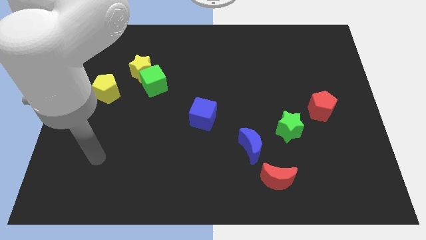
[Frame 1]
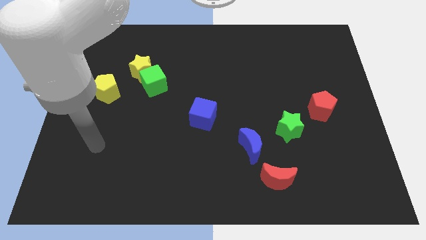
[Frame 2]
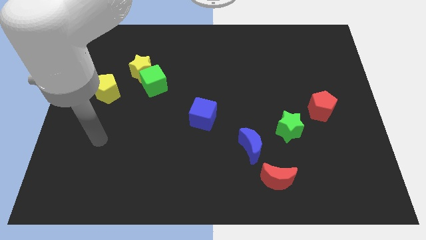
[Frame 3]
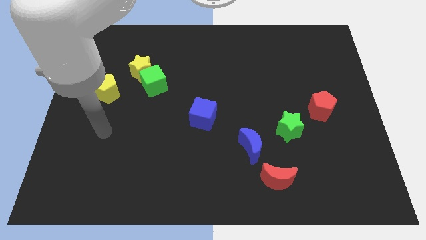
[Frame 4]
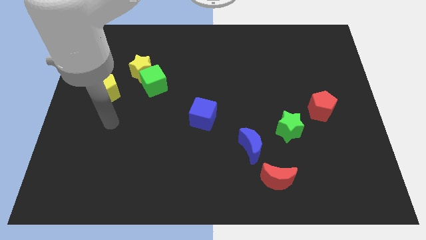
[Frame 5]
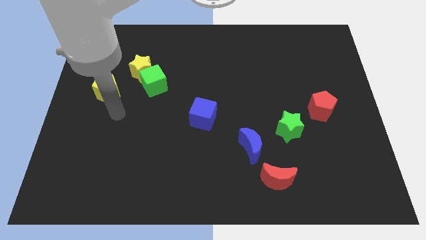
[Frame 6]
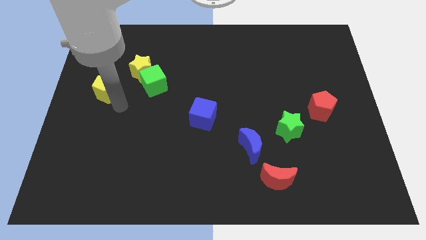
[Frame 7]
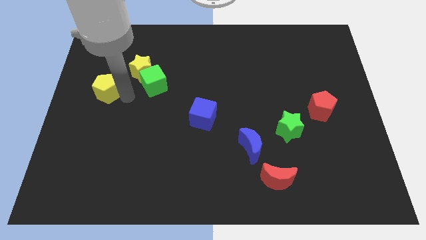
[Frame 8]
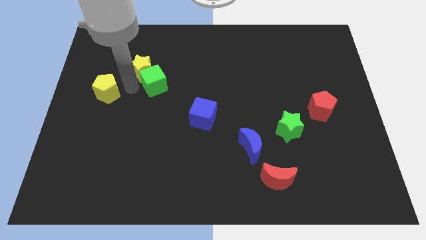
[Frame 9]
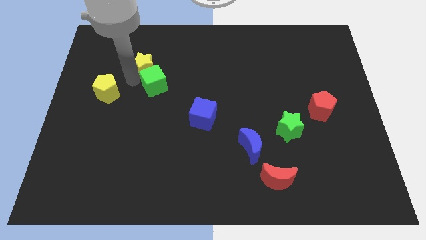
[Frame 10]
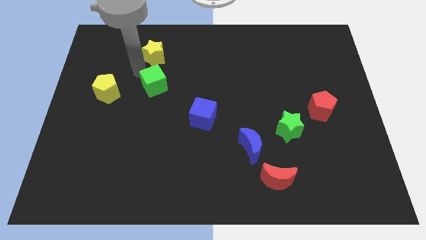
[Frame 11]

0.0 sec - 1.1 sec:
move the green cube away from the yellow star

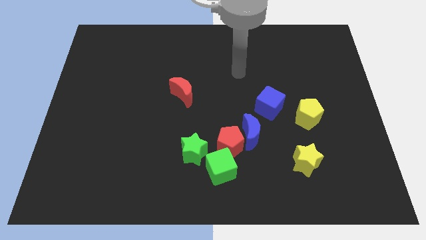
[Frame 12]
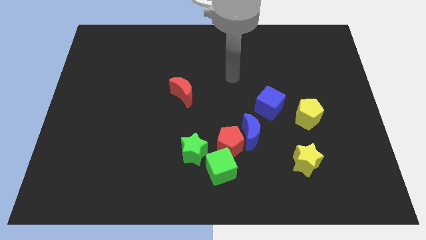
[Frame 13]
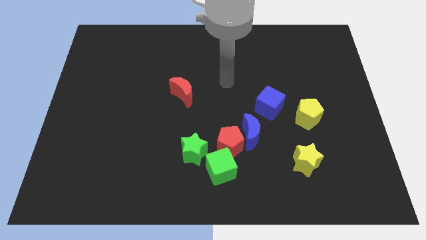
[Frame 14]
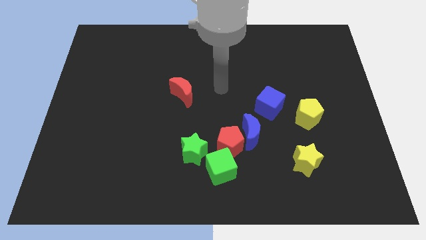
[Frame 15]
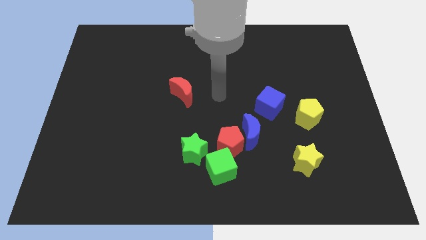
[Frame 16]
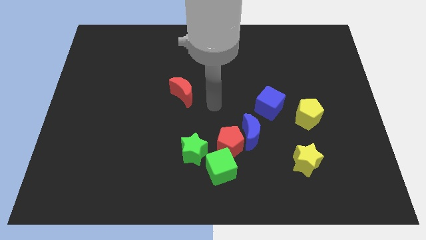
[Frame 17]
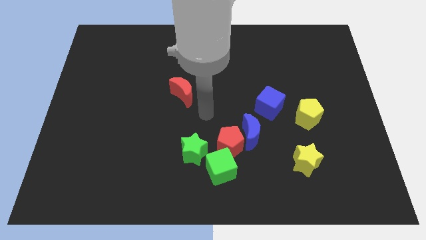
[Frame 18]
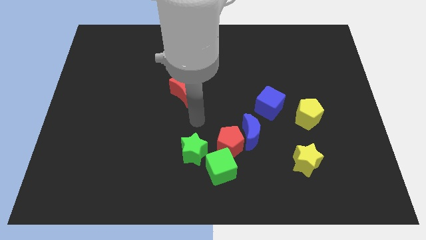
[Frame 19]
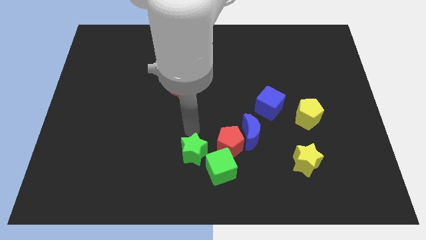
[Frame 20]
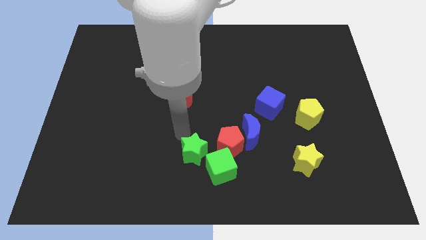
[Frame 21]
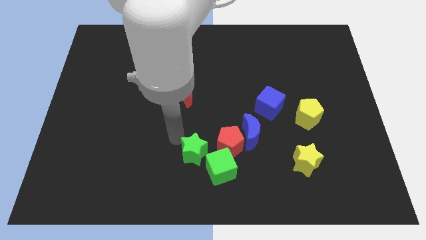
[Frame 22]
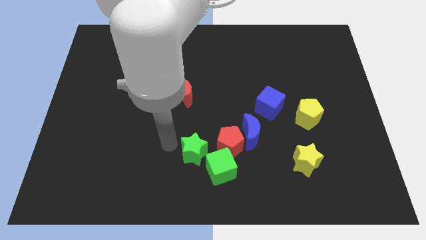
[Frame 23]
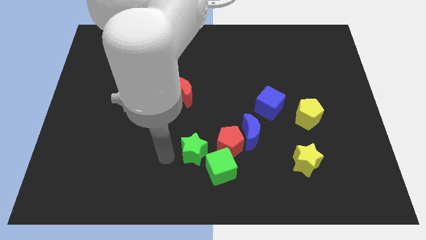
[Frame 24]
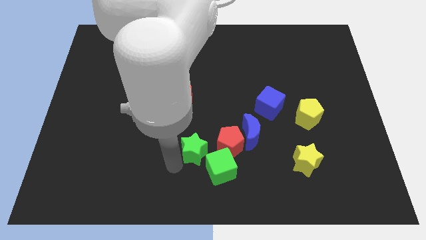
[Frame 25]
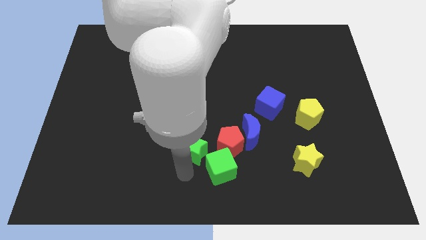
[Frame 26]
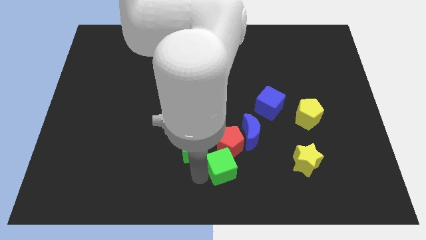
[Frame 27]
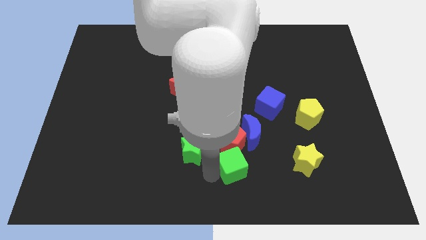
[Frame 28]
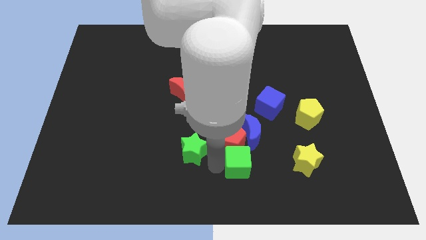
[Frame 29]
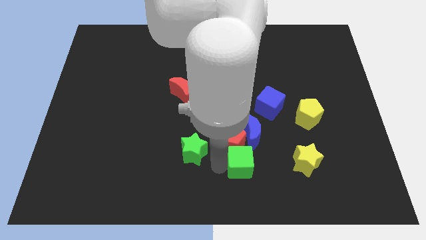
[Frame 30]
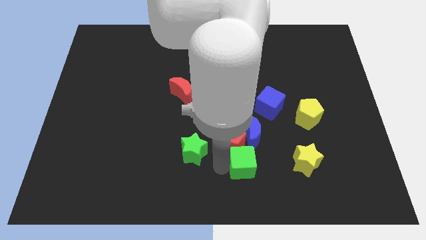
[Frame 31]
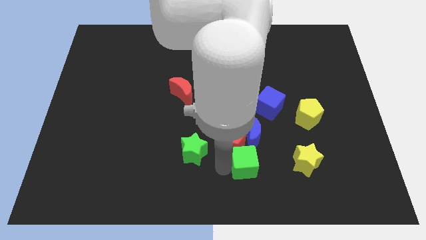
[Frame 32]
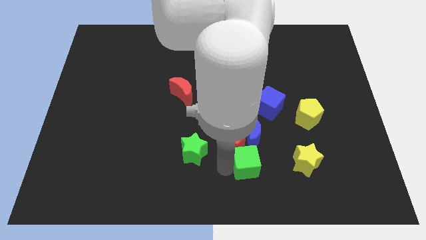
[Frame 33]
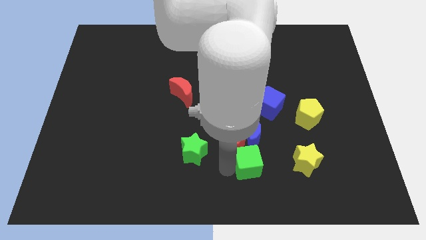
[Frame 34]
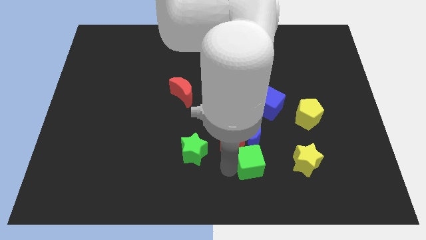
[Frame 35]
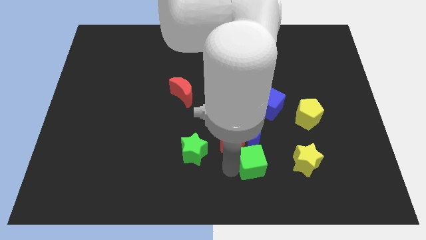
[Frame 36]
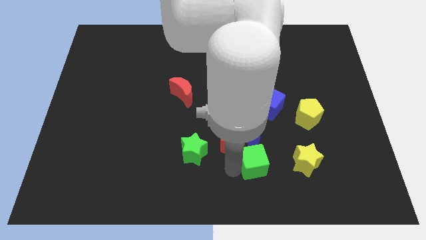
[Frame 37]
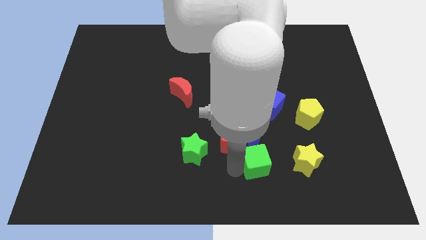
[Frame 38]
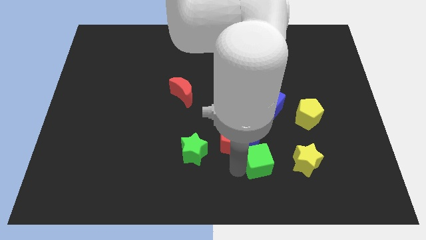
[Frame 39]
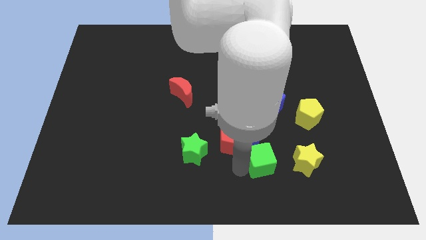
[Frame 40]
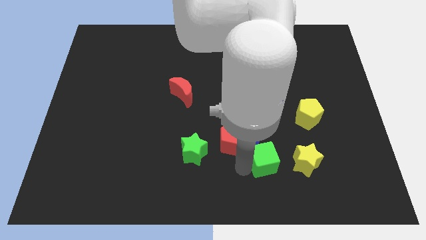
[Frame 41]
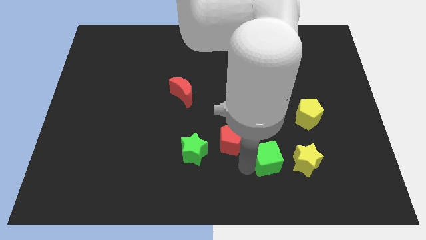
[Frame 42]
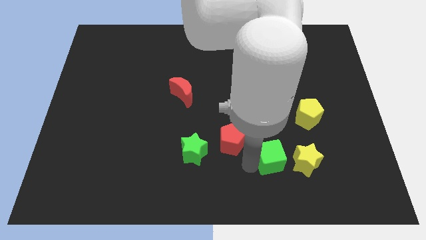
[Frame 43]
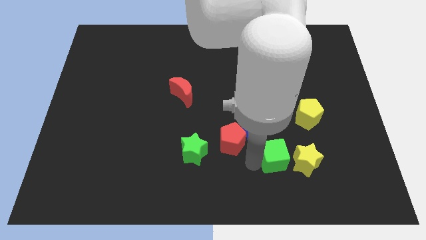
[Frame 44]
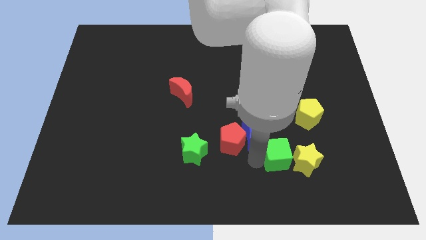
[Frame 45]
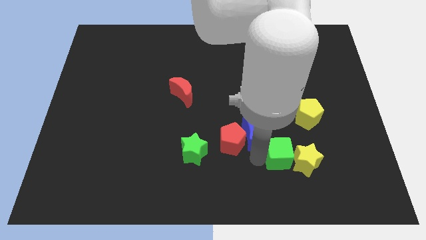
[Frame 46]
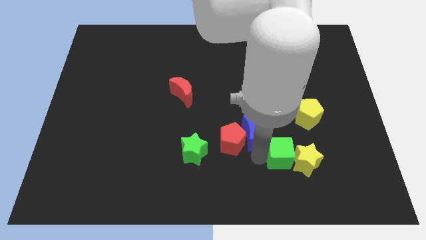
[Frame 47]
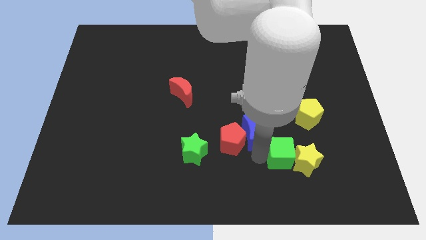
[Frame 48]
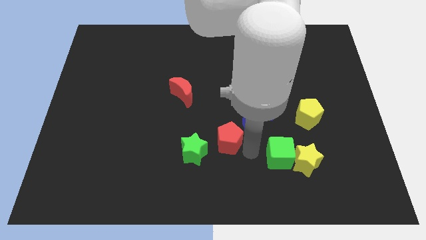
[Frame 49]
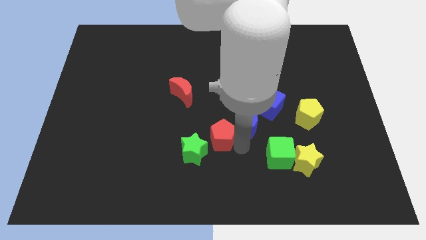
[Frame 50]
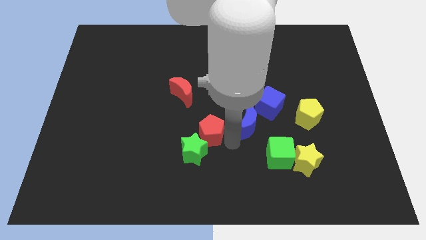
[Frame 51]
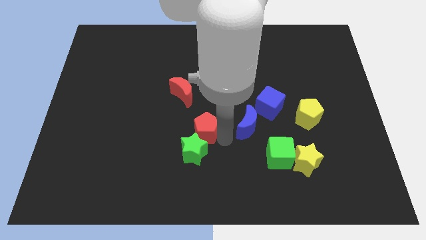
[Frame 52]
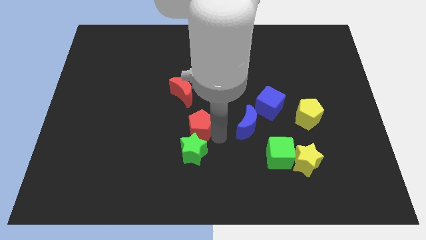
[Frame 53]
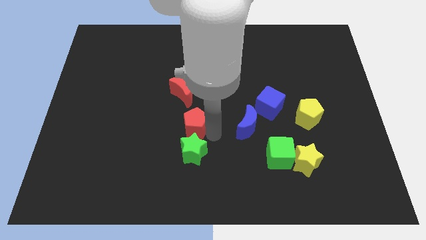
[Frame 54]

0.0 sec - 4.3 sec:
separate the red pentagon from the blue moon, green cube, and green star

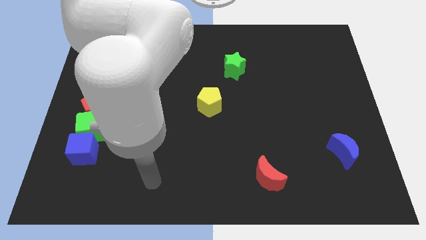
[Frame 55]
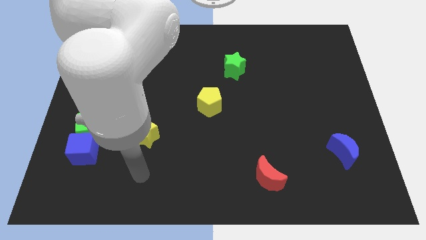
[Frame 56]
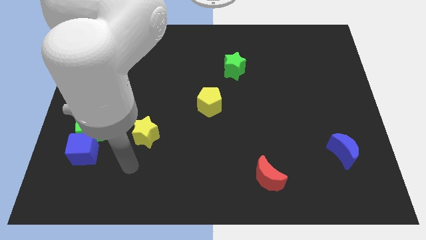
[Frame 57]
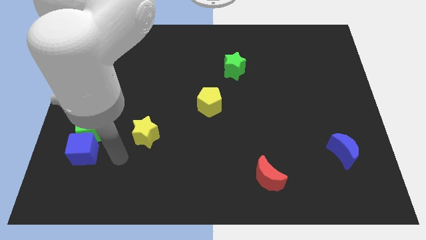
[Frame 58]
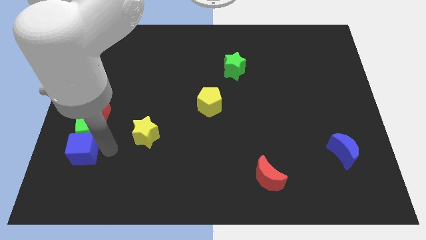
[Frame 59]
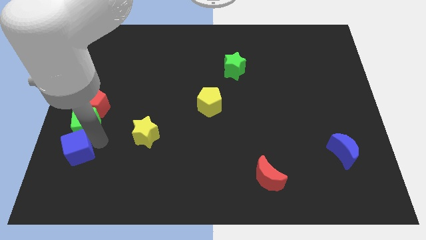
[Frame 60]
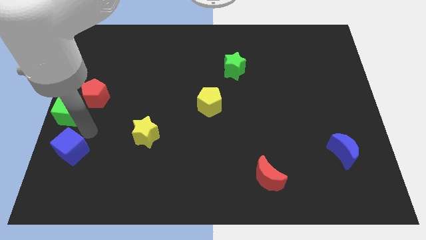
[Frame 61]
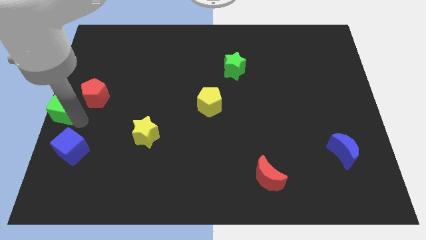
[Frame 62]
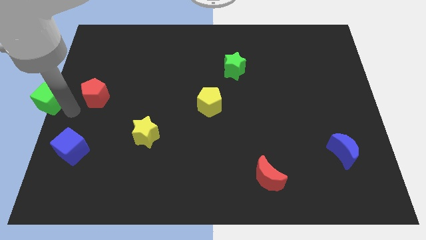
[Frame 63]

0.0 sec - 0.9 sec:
pull the red pentagon apart from the green cube

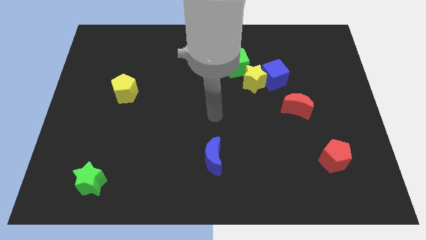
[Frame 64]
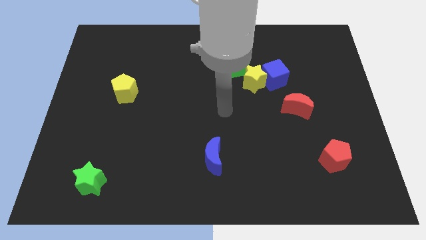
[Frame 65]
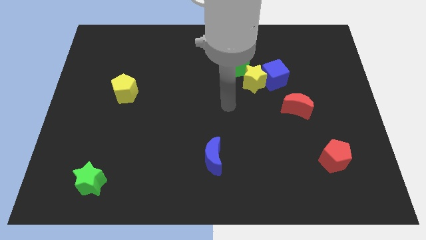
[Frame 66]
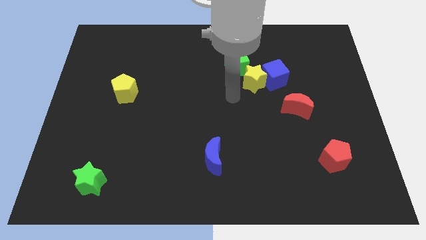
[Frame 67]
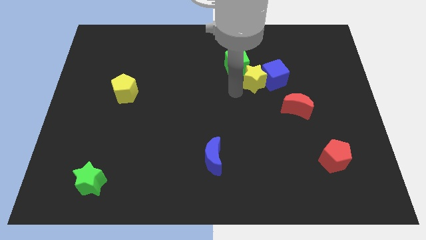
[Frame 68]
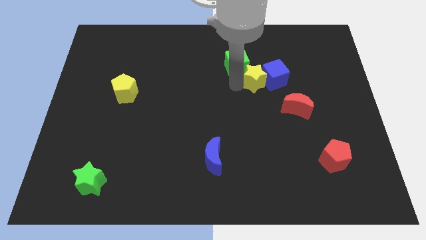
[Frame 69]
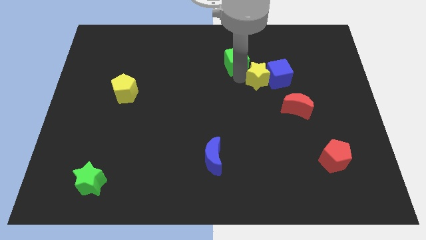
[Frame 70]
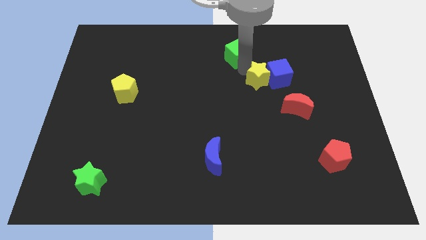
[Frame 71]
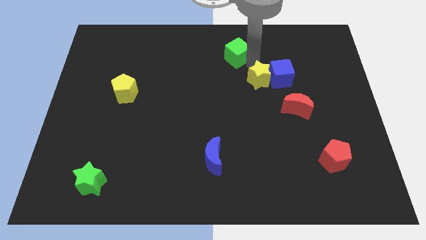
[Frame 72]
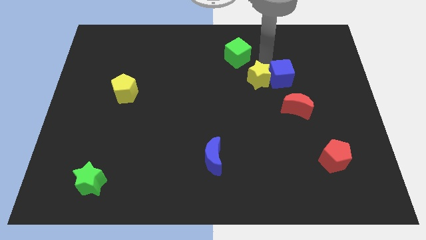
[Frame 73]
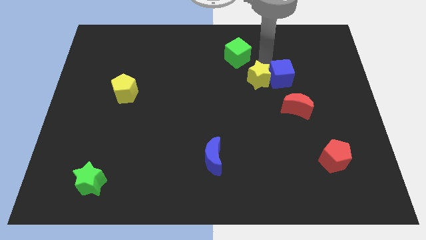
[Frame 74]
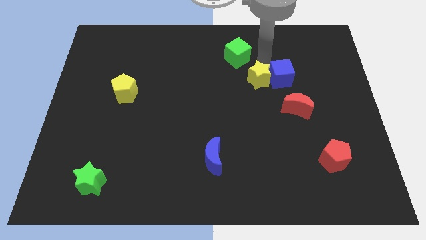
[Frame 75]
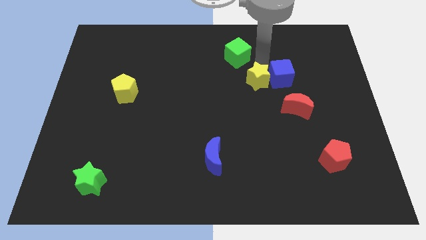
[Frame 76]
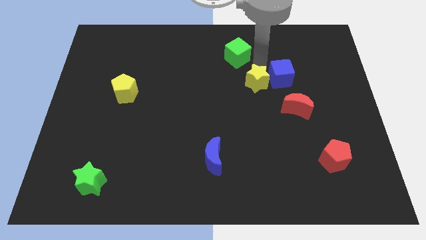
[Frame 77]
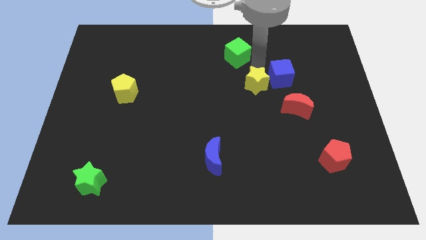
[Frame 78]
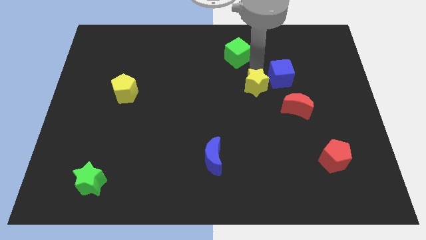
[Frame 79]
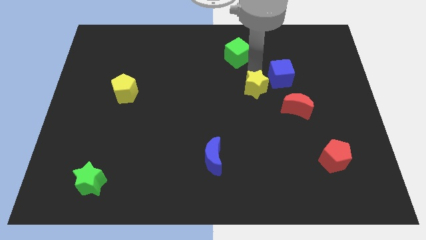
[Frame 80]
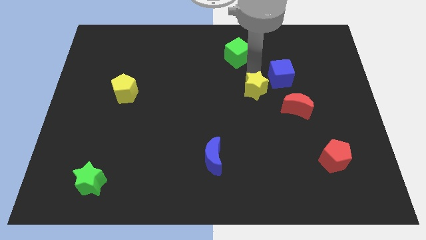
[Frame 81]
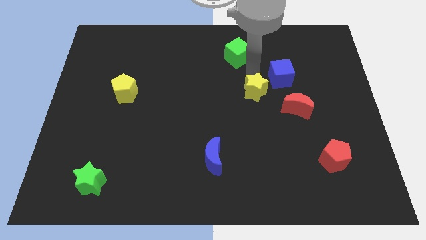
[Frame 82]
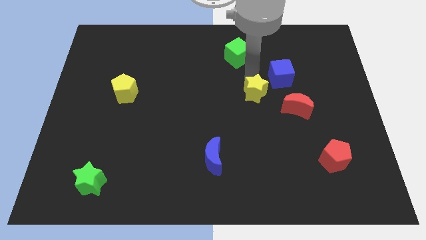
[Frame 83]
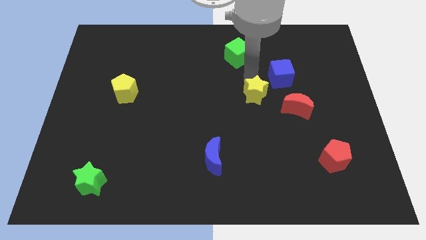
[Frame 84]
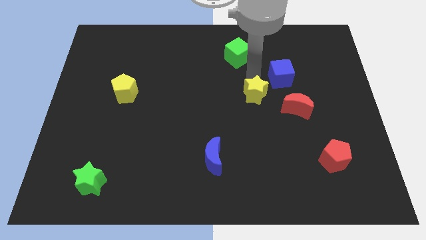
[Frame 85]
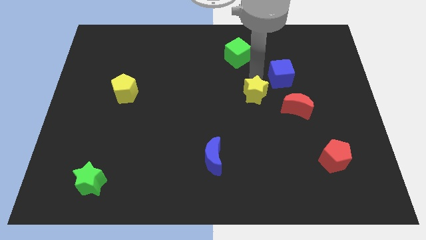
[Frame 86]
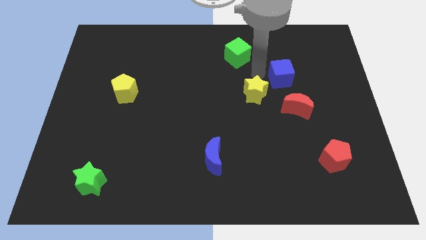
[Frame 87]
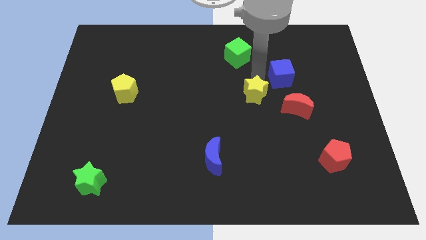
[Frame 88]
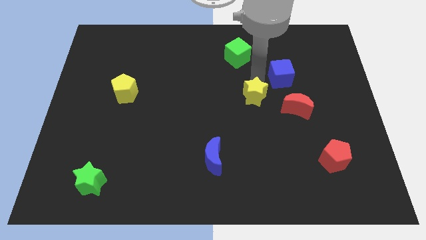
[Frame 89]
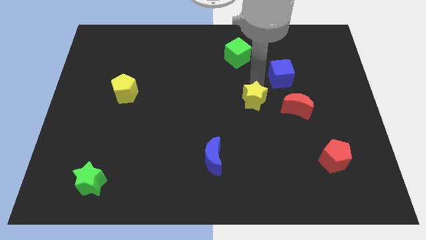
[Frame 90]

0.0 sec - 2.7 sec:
move the yellow star away from the blue cube and green cube
